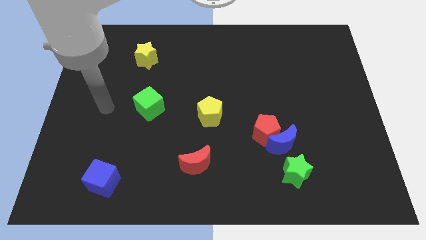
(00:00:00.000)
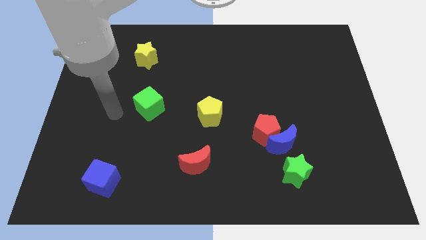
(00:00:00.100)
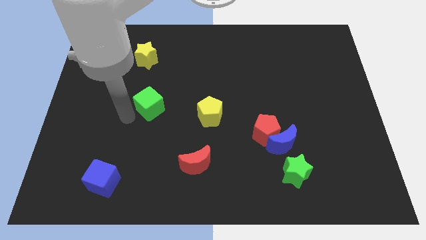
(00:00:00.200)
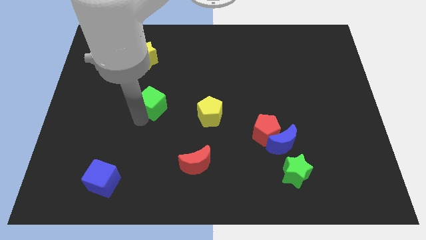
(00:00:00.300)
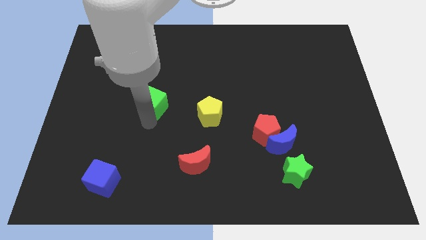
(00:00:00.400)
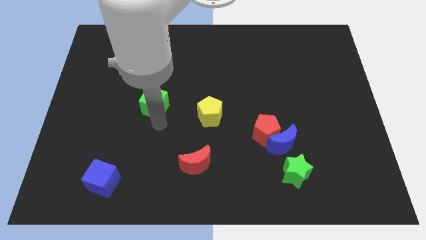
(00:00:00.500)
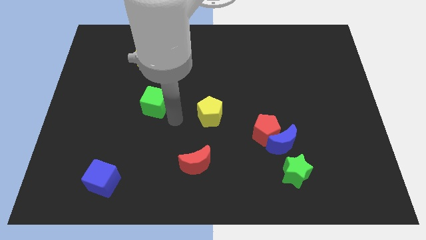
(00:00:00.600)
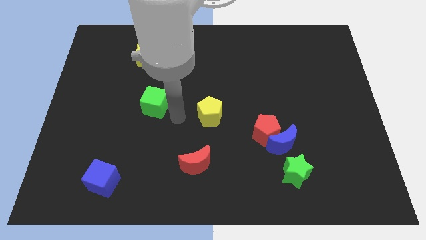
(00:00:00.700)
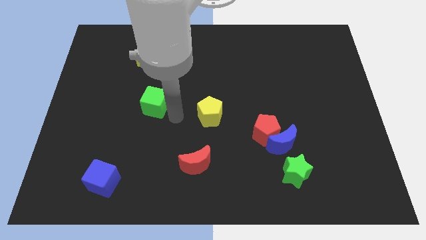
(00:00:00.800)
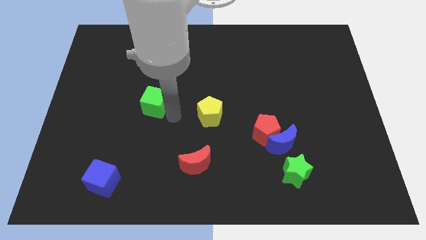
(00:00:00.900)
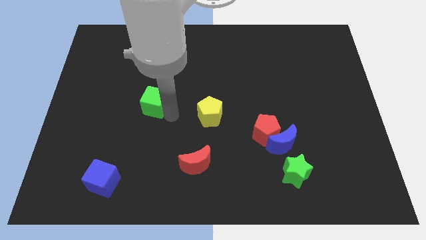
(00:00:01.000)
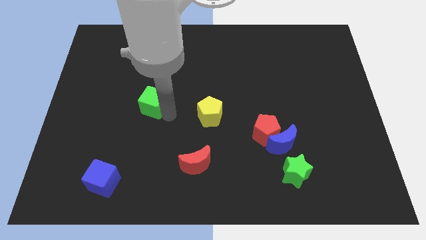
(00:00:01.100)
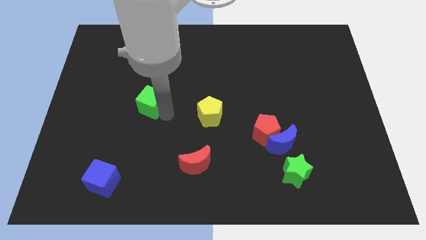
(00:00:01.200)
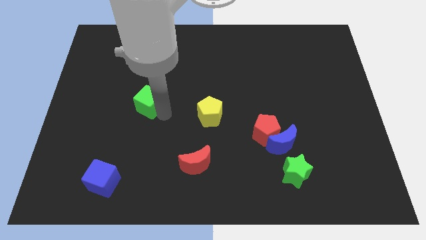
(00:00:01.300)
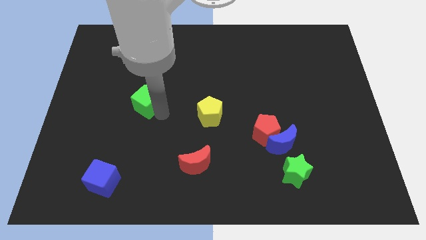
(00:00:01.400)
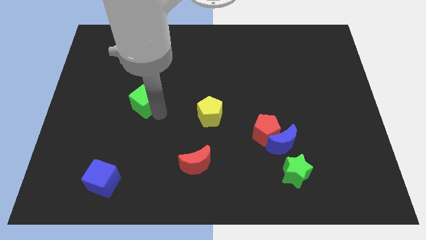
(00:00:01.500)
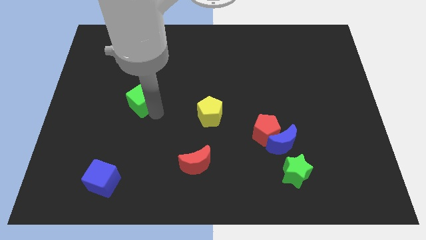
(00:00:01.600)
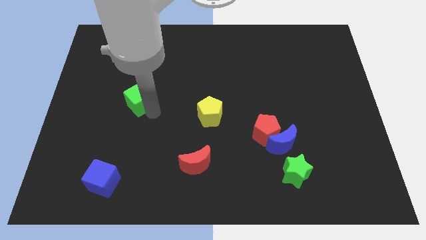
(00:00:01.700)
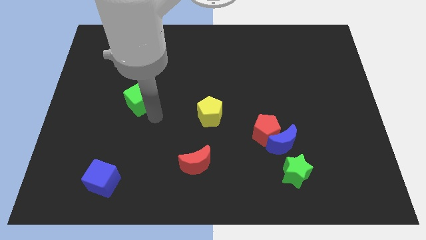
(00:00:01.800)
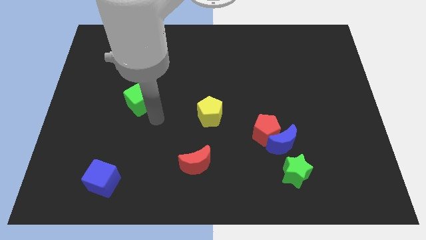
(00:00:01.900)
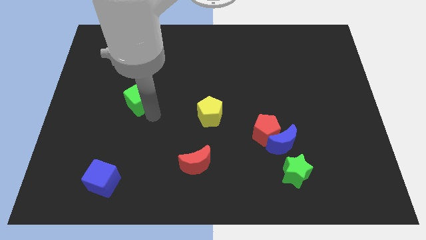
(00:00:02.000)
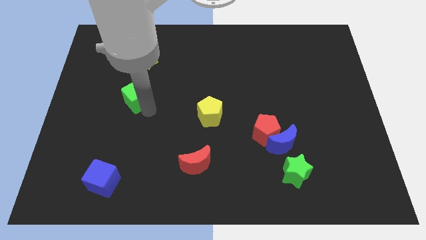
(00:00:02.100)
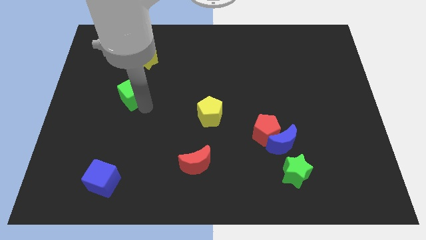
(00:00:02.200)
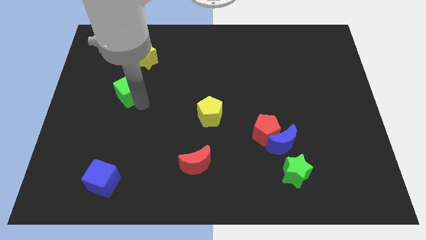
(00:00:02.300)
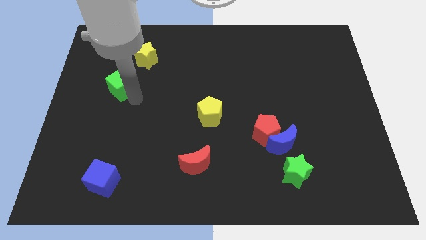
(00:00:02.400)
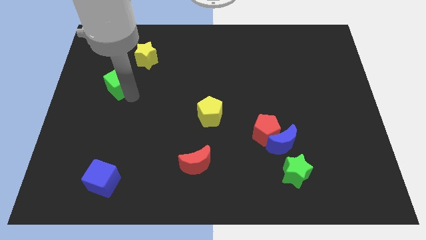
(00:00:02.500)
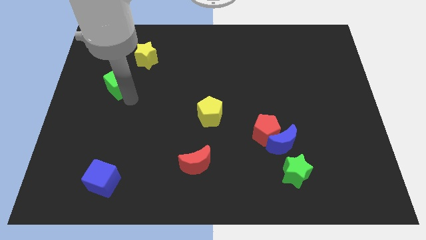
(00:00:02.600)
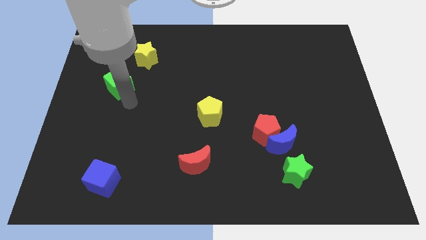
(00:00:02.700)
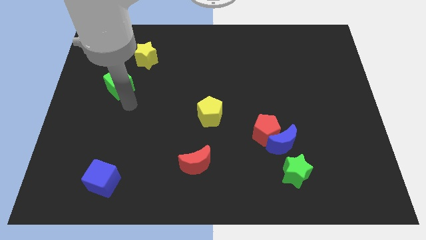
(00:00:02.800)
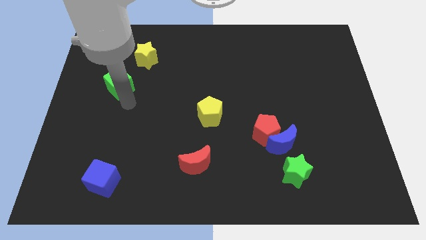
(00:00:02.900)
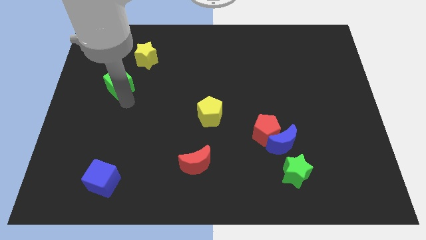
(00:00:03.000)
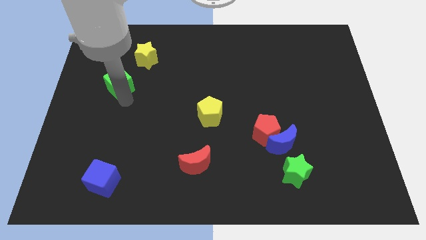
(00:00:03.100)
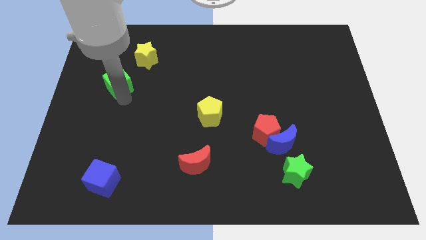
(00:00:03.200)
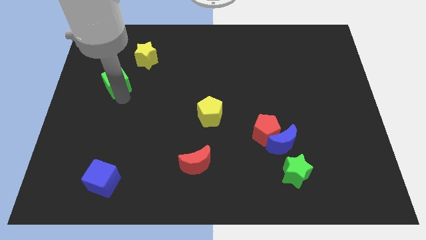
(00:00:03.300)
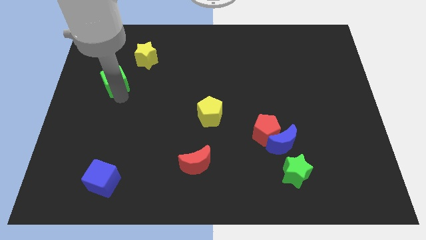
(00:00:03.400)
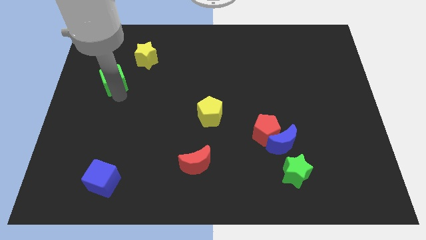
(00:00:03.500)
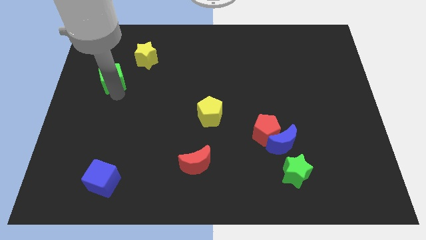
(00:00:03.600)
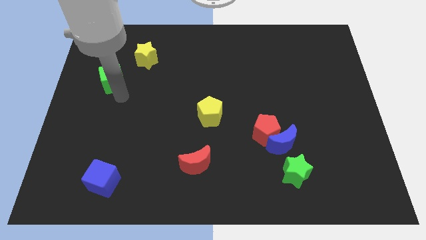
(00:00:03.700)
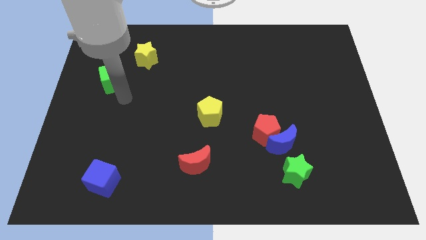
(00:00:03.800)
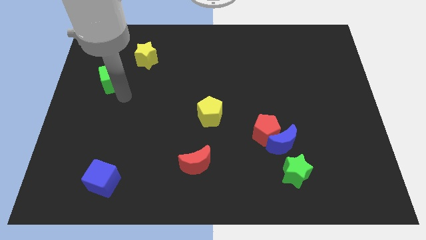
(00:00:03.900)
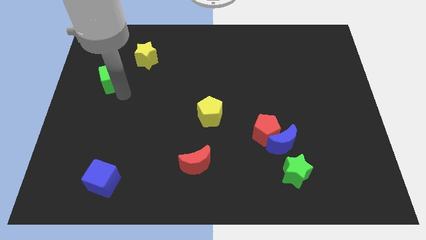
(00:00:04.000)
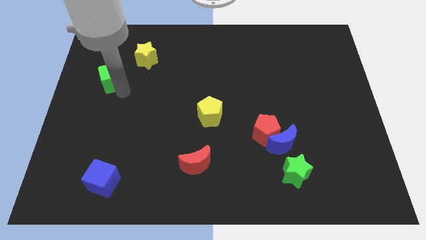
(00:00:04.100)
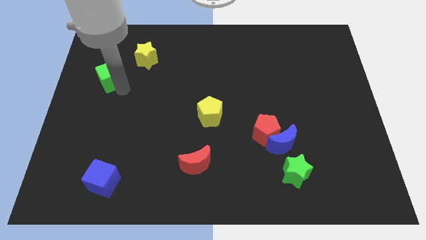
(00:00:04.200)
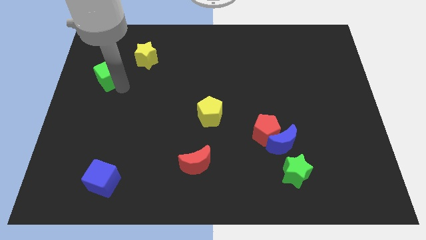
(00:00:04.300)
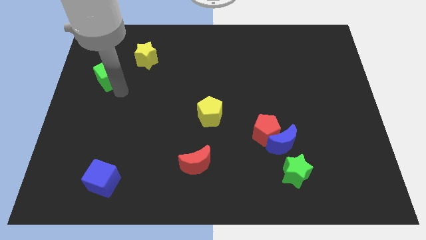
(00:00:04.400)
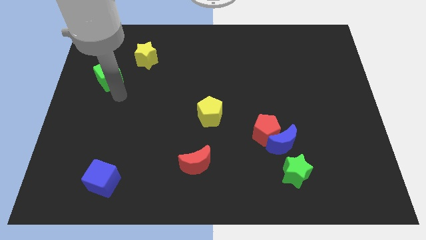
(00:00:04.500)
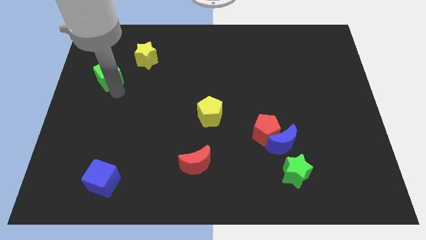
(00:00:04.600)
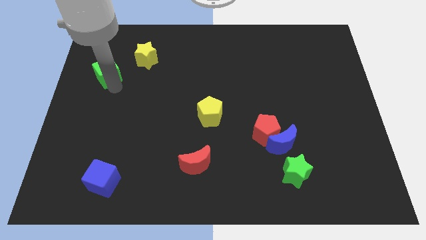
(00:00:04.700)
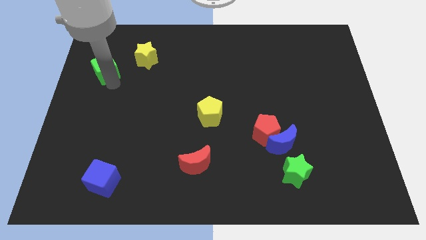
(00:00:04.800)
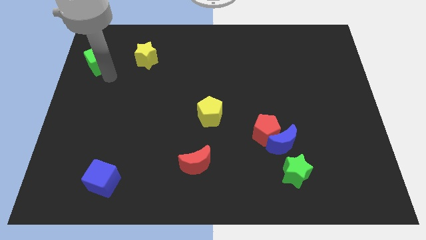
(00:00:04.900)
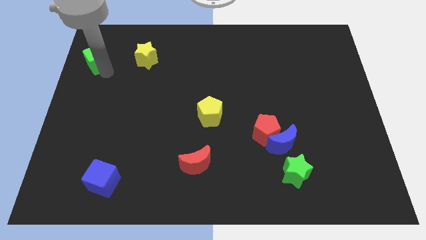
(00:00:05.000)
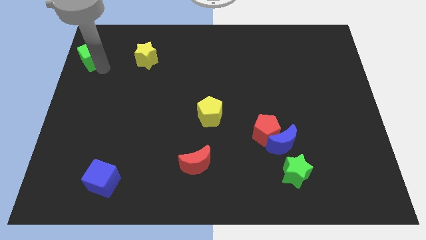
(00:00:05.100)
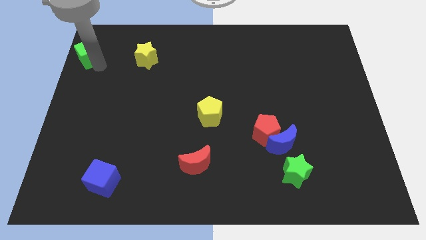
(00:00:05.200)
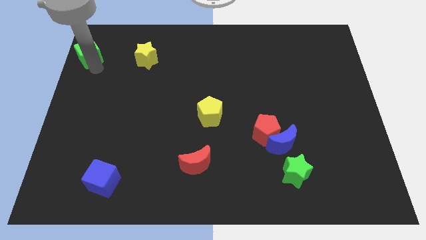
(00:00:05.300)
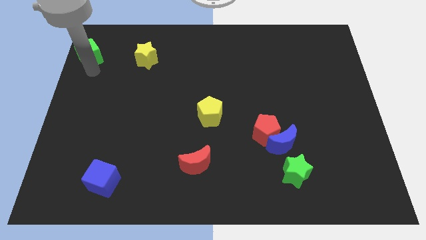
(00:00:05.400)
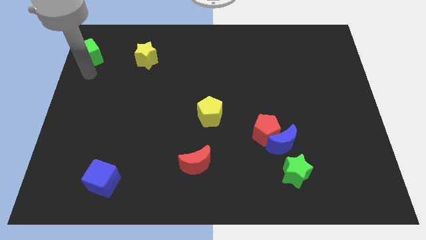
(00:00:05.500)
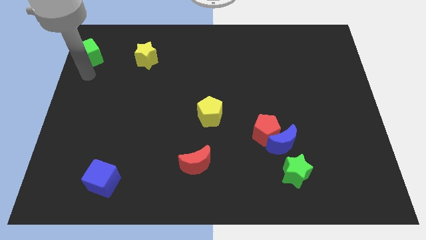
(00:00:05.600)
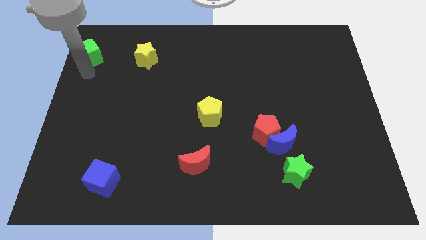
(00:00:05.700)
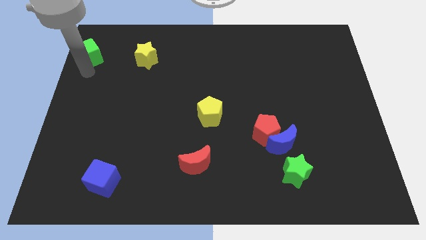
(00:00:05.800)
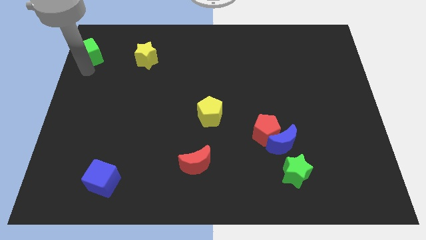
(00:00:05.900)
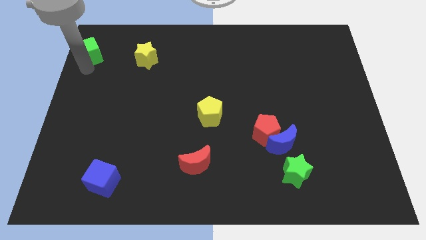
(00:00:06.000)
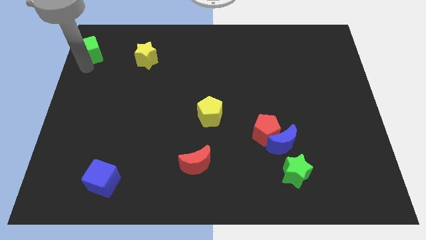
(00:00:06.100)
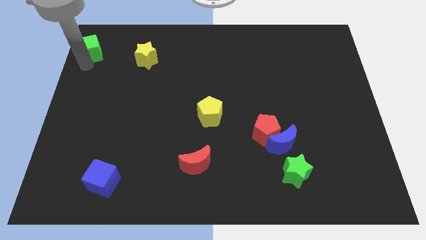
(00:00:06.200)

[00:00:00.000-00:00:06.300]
move the green cube to the top left corner
